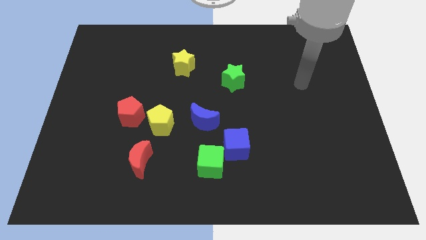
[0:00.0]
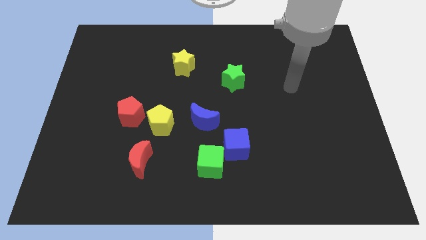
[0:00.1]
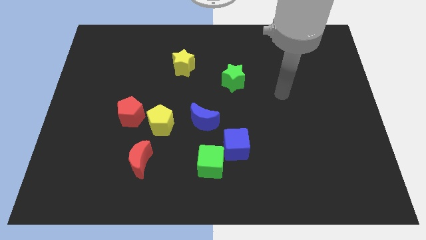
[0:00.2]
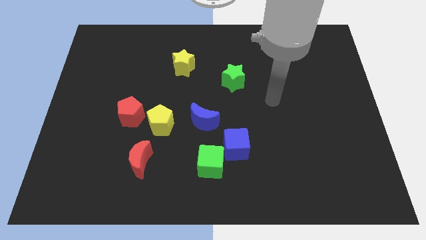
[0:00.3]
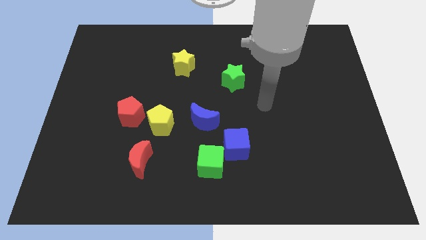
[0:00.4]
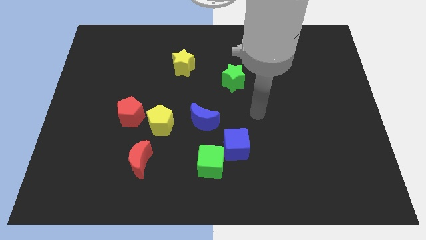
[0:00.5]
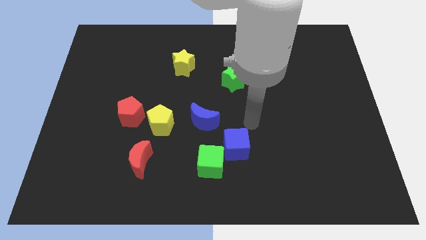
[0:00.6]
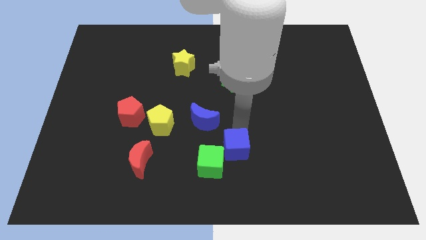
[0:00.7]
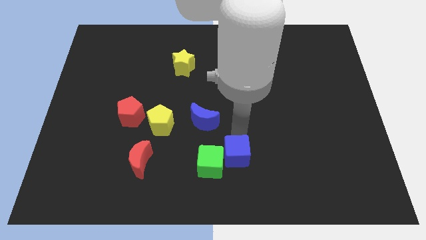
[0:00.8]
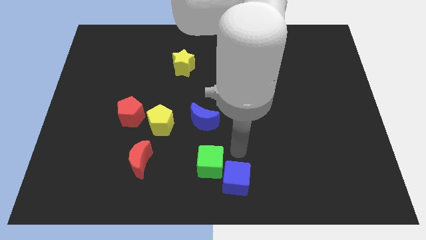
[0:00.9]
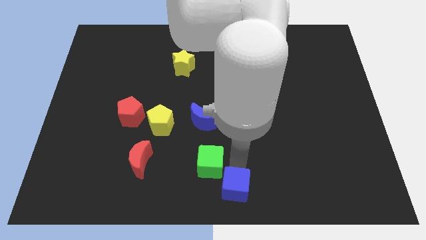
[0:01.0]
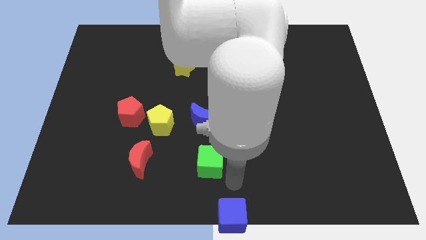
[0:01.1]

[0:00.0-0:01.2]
separate the green cube from the blue cube

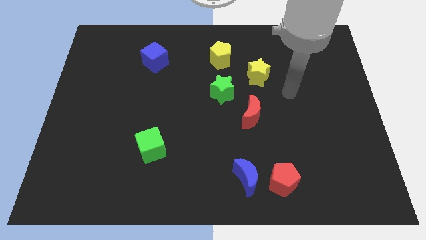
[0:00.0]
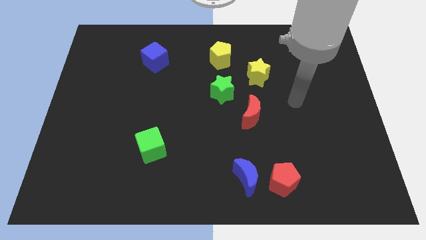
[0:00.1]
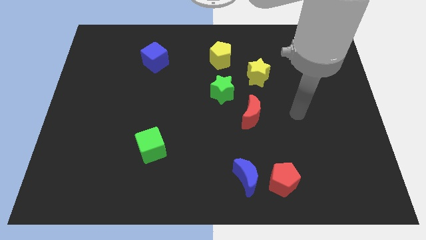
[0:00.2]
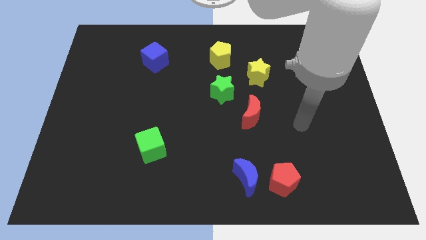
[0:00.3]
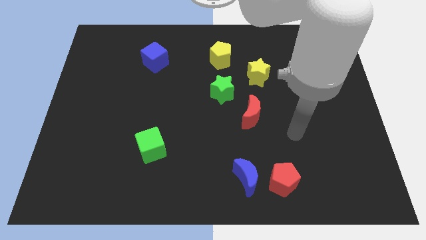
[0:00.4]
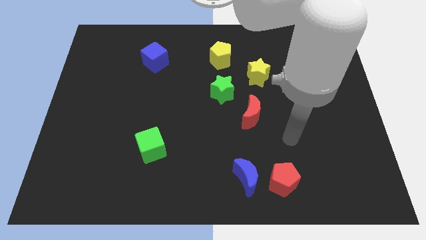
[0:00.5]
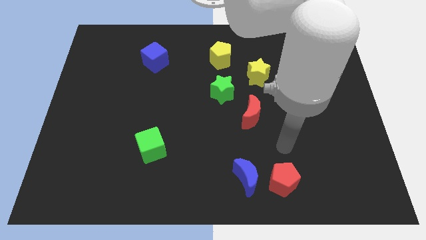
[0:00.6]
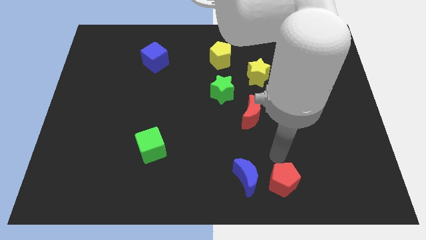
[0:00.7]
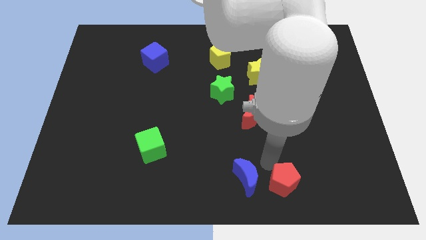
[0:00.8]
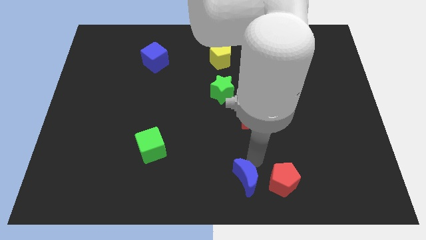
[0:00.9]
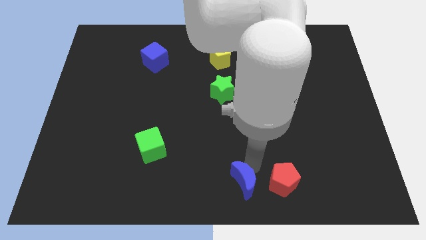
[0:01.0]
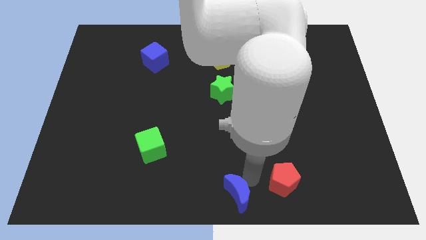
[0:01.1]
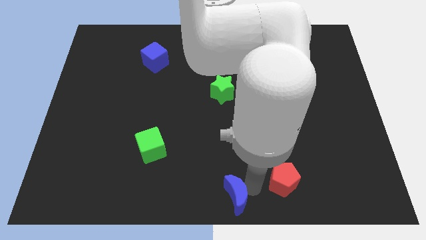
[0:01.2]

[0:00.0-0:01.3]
separate the red pentagon from the blue moon

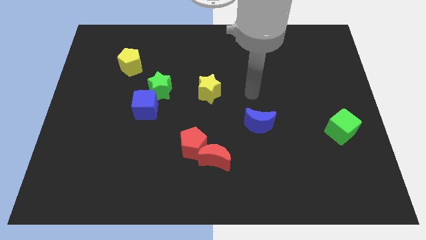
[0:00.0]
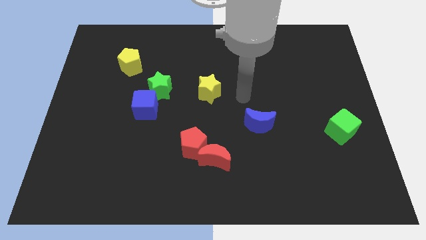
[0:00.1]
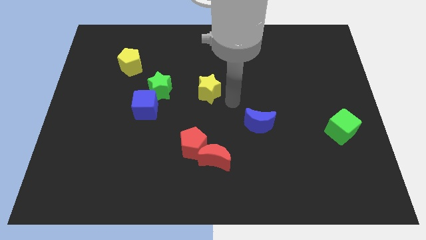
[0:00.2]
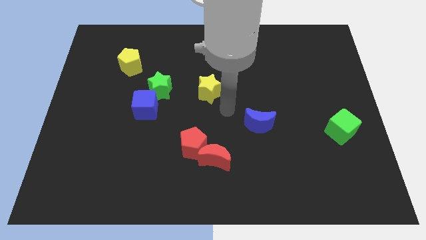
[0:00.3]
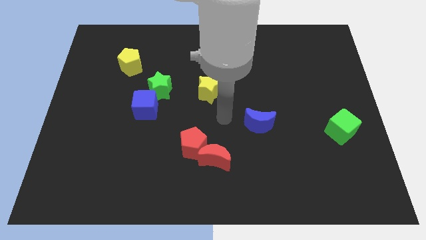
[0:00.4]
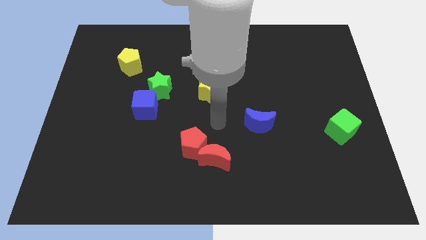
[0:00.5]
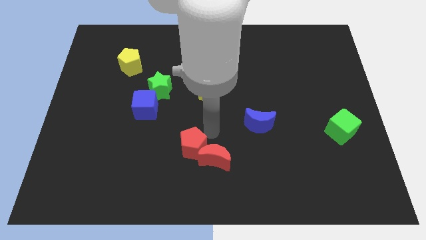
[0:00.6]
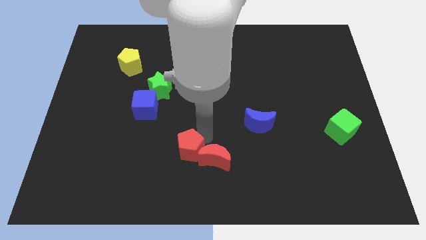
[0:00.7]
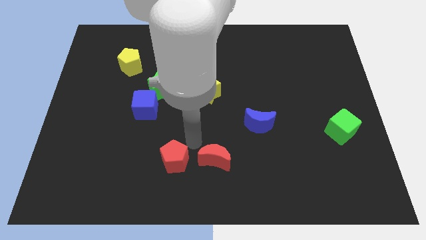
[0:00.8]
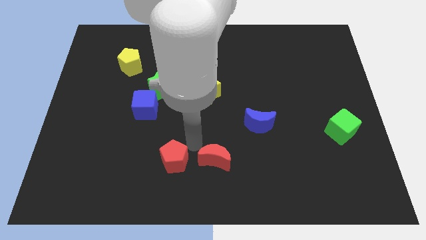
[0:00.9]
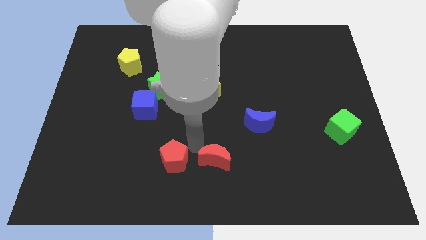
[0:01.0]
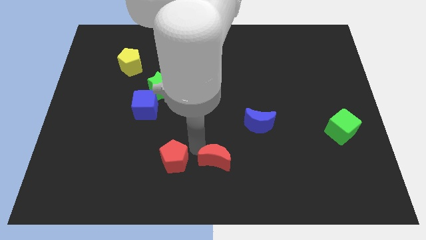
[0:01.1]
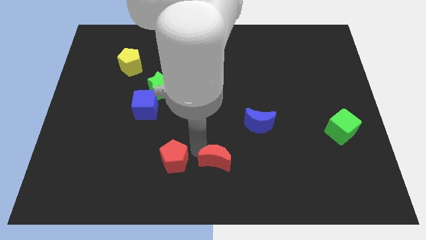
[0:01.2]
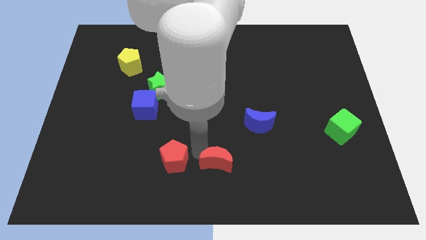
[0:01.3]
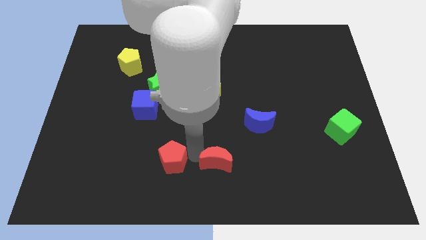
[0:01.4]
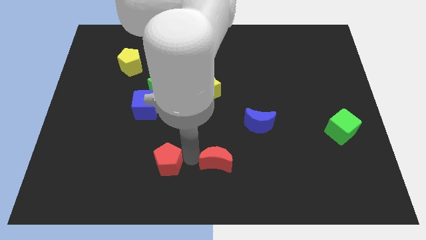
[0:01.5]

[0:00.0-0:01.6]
move the red moon away from the red pentagon

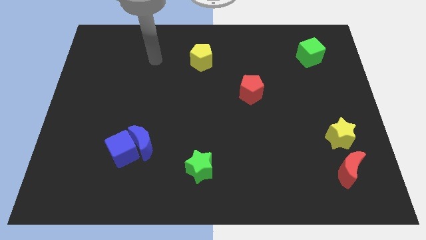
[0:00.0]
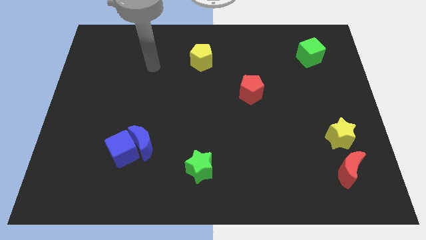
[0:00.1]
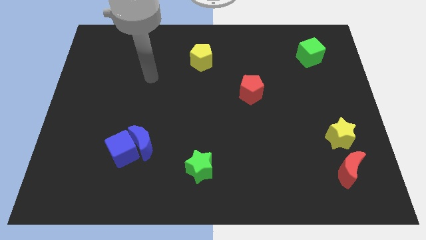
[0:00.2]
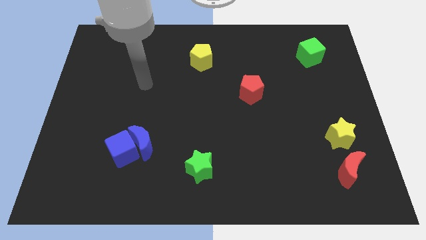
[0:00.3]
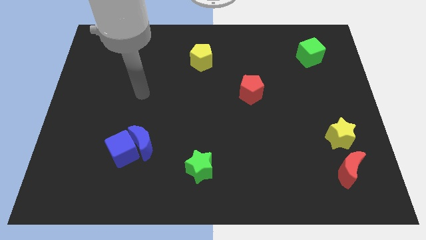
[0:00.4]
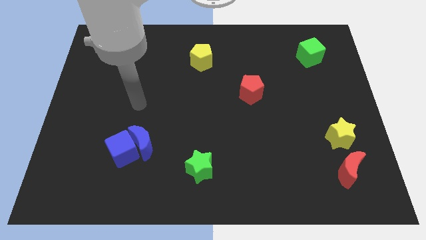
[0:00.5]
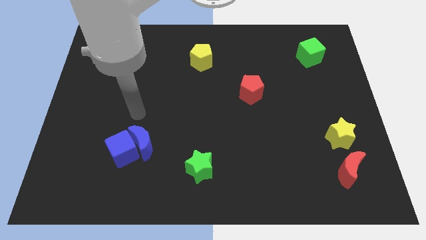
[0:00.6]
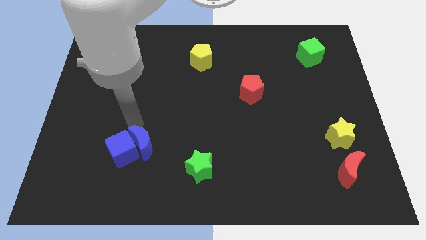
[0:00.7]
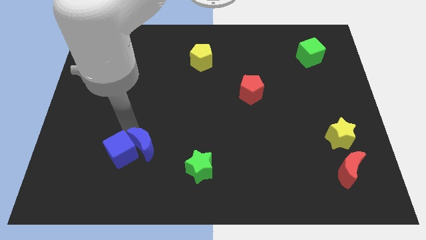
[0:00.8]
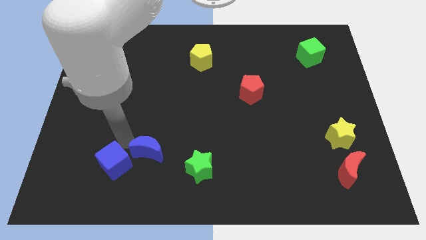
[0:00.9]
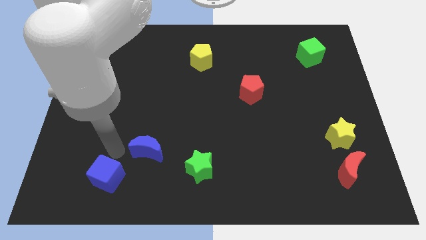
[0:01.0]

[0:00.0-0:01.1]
separate the blue moon from the blue cube

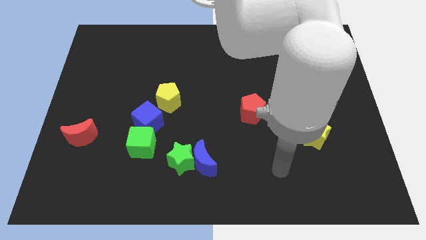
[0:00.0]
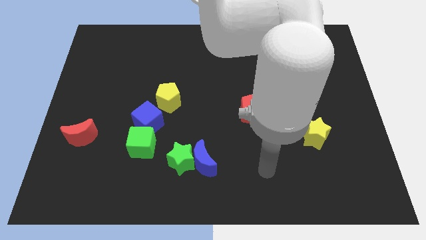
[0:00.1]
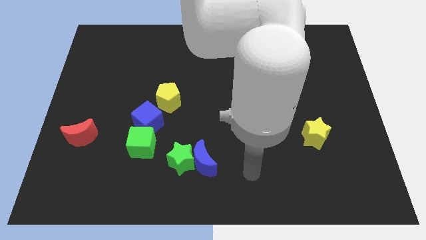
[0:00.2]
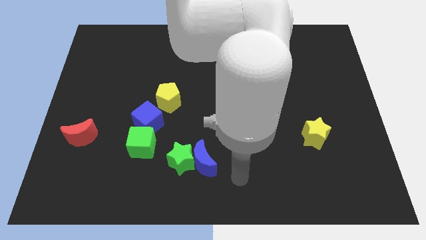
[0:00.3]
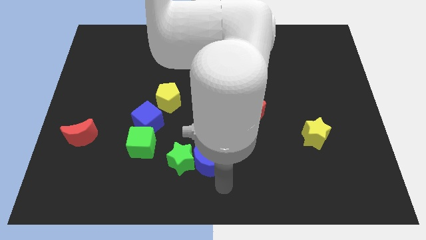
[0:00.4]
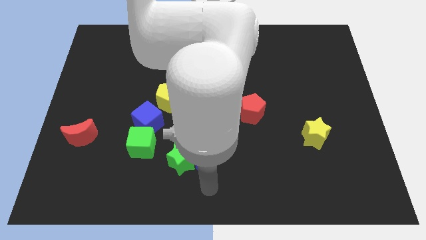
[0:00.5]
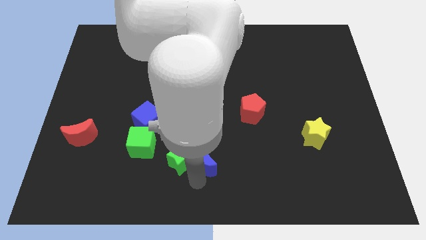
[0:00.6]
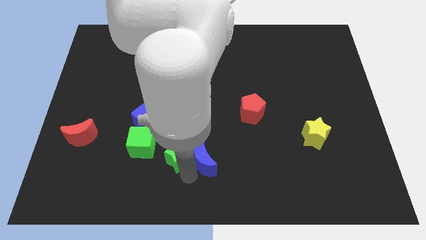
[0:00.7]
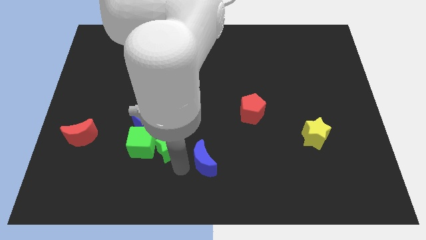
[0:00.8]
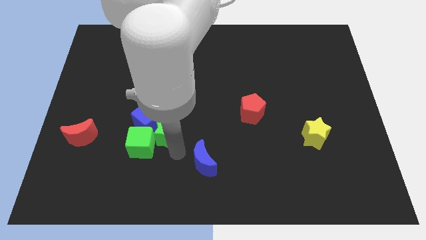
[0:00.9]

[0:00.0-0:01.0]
separate the blue moon from the green star

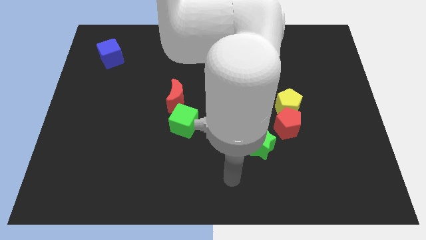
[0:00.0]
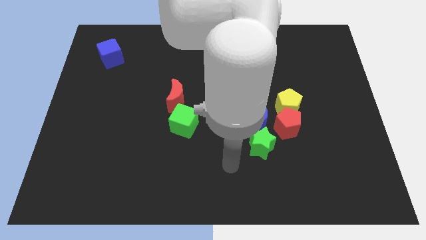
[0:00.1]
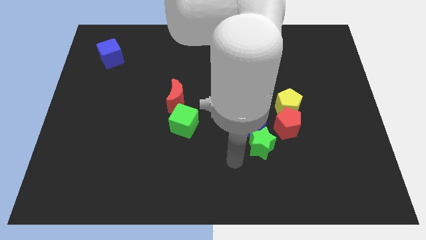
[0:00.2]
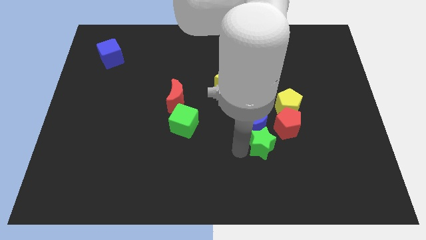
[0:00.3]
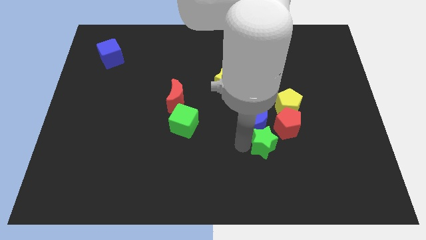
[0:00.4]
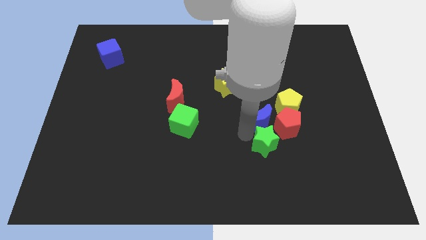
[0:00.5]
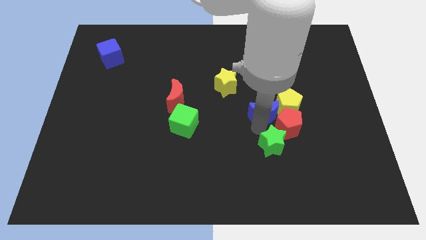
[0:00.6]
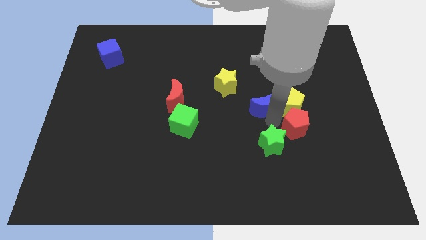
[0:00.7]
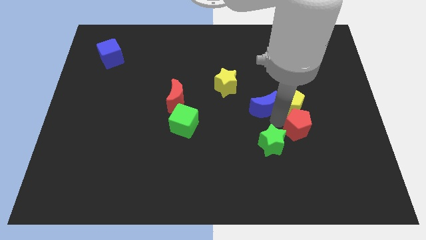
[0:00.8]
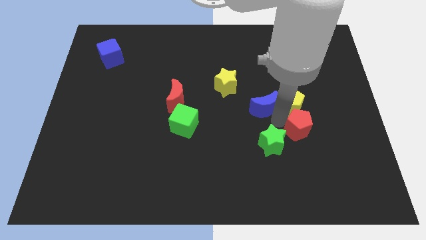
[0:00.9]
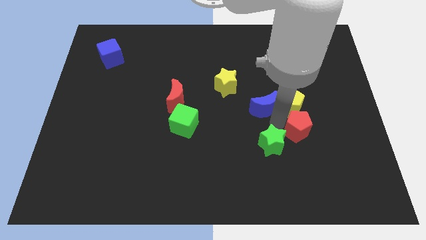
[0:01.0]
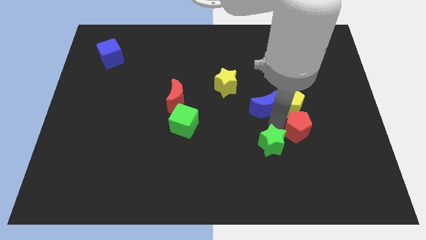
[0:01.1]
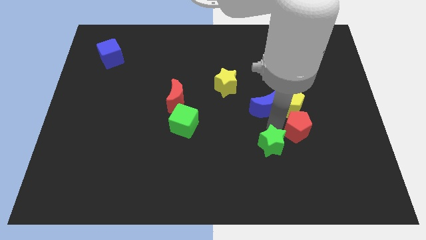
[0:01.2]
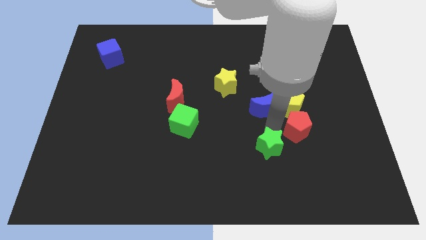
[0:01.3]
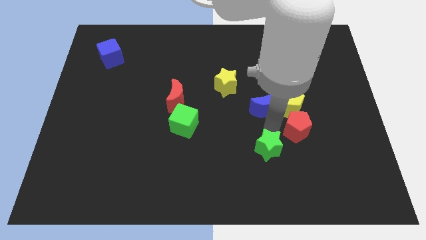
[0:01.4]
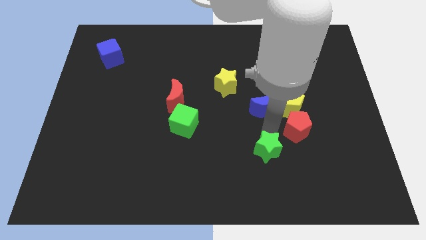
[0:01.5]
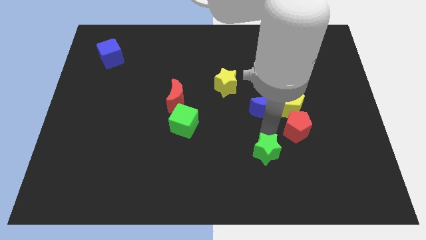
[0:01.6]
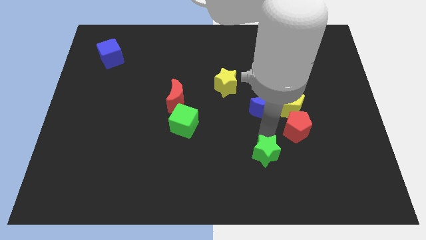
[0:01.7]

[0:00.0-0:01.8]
separate the green star from the blue moon and red pentagon

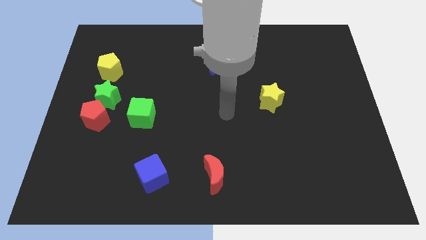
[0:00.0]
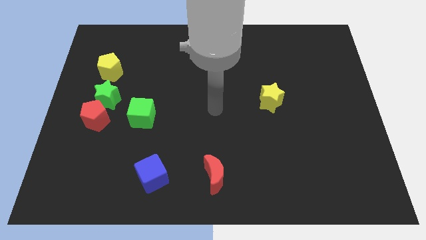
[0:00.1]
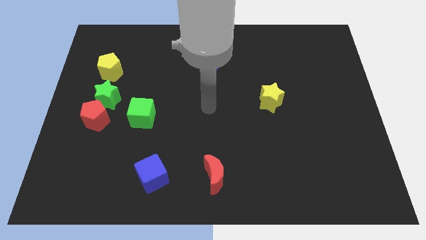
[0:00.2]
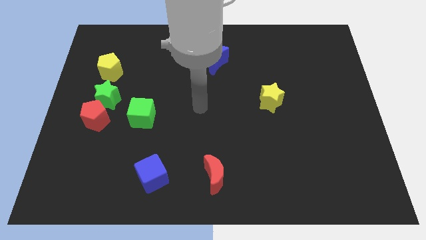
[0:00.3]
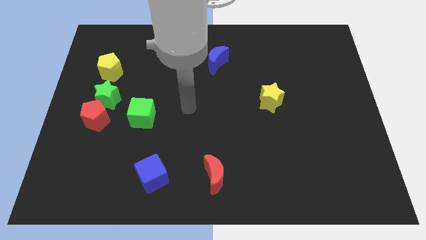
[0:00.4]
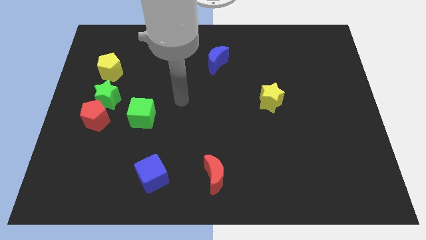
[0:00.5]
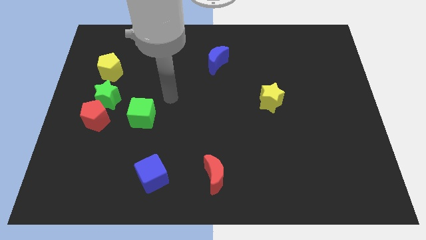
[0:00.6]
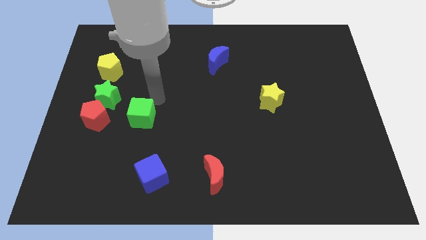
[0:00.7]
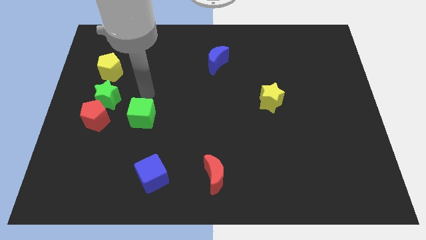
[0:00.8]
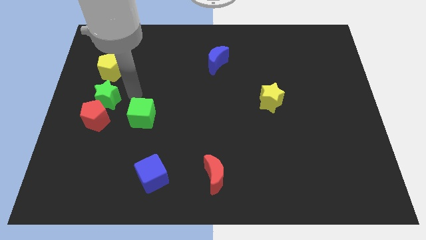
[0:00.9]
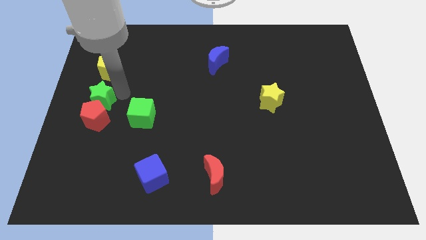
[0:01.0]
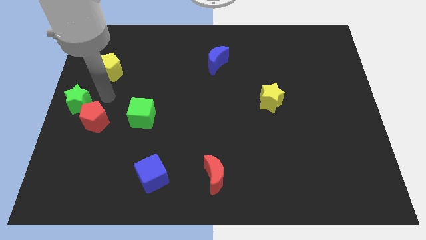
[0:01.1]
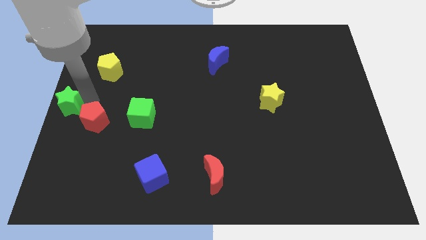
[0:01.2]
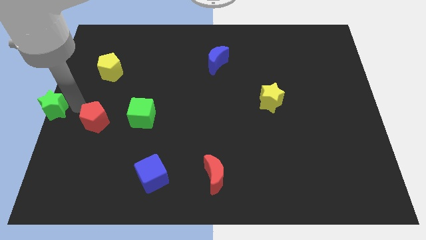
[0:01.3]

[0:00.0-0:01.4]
move the red pentagon away from the green star

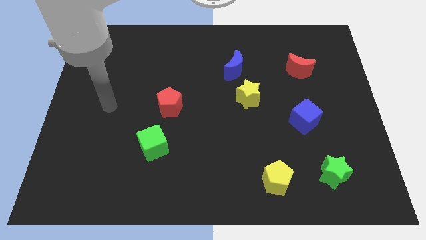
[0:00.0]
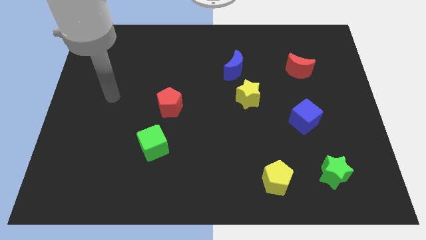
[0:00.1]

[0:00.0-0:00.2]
pull the blue moon apart from the yellow star
